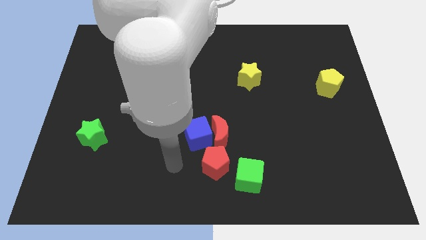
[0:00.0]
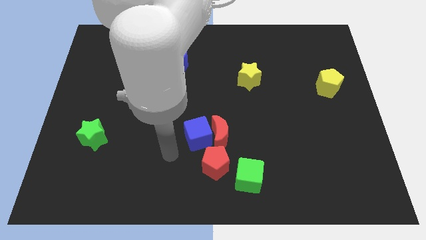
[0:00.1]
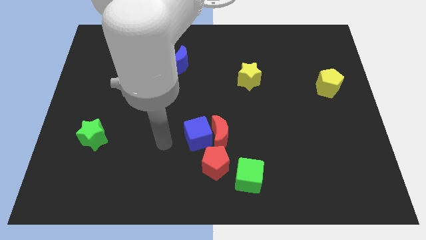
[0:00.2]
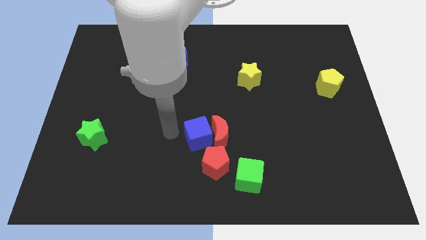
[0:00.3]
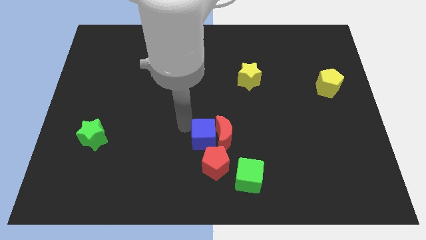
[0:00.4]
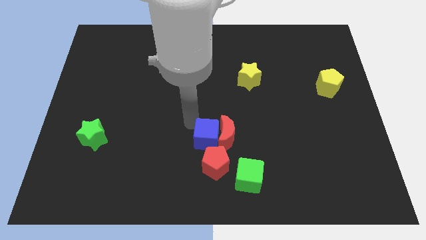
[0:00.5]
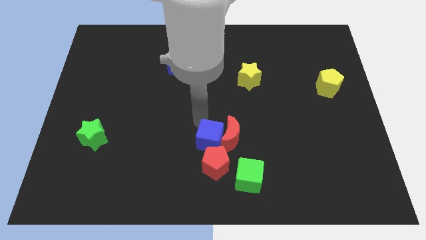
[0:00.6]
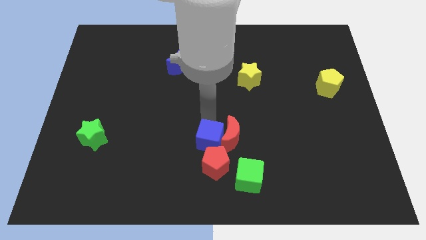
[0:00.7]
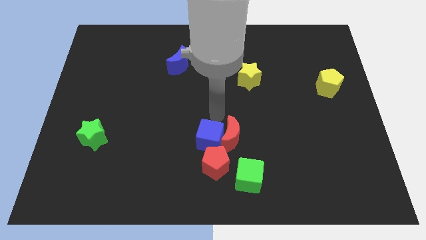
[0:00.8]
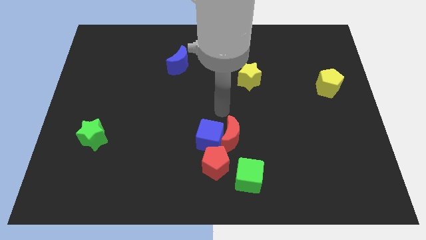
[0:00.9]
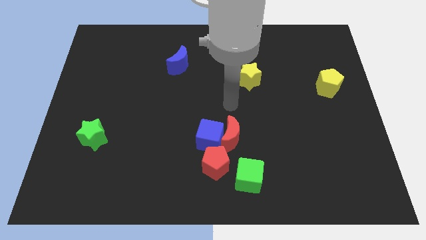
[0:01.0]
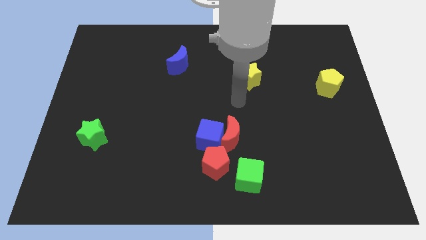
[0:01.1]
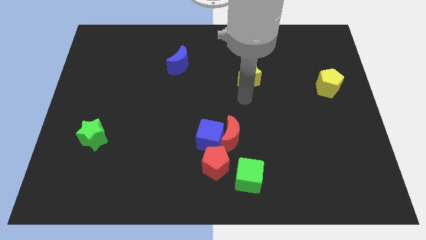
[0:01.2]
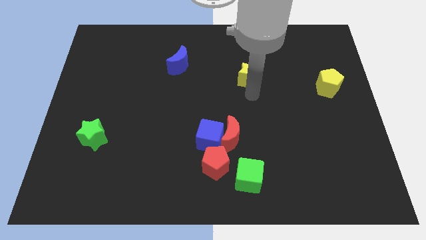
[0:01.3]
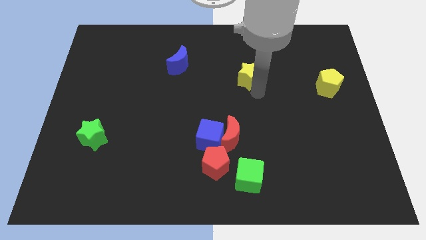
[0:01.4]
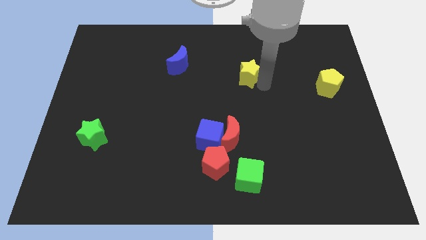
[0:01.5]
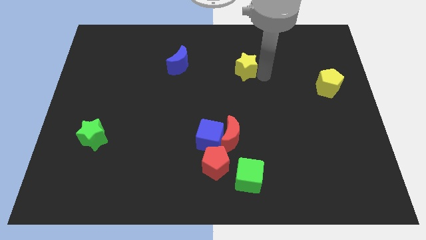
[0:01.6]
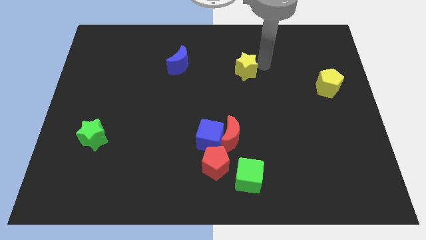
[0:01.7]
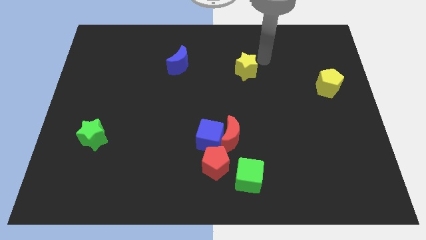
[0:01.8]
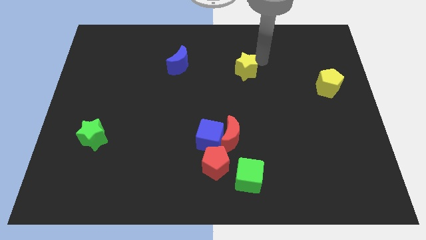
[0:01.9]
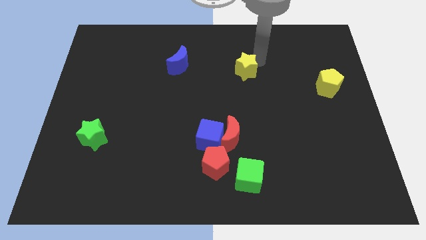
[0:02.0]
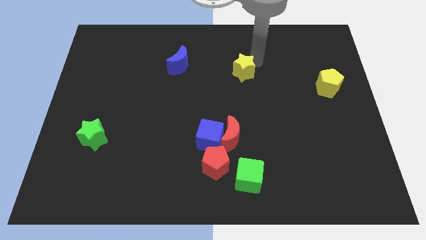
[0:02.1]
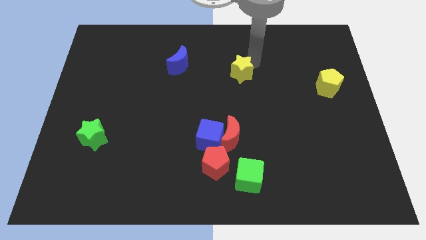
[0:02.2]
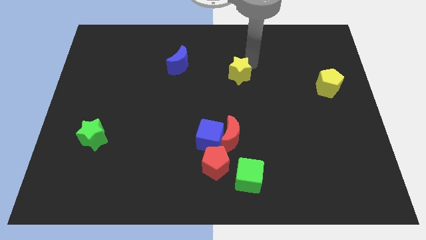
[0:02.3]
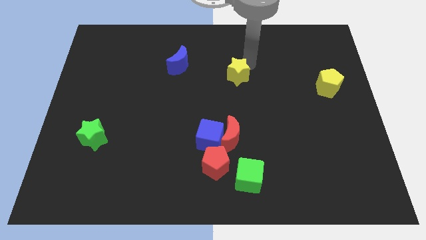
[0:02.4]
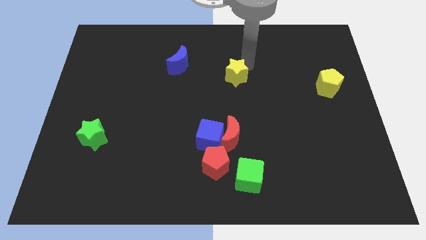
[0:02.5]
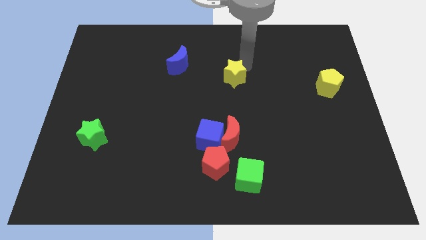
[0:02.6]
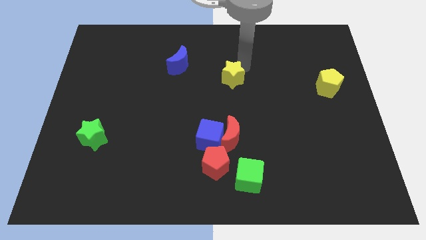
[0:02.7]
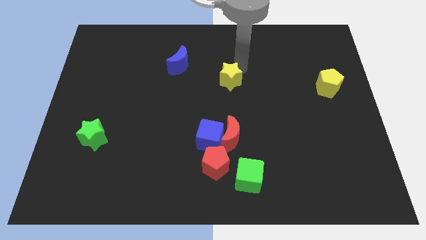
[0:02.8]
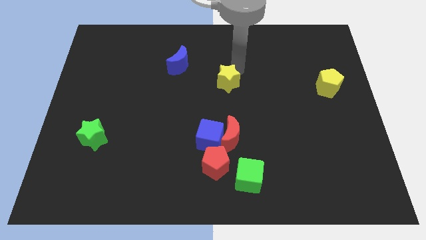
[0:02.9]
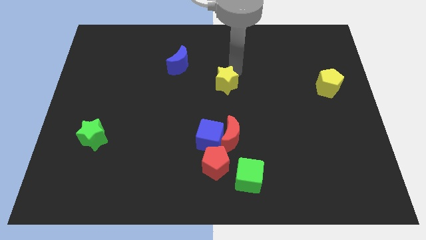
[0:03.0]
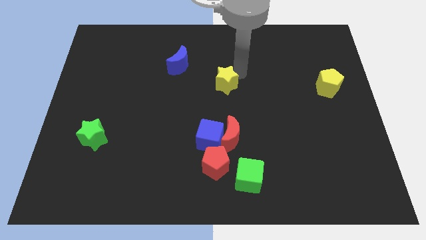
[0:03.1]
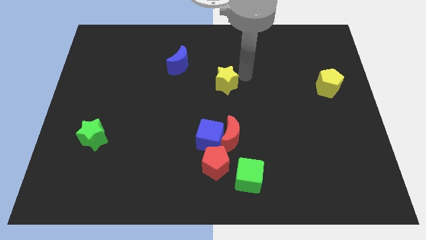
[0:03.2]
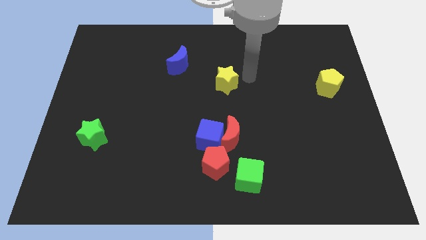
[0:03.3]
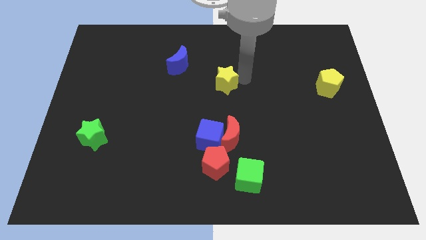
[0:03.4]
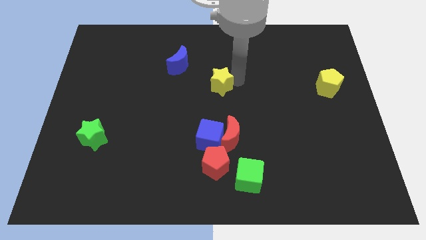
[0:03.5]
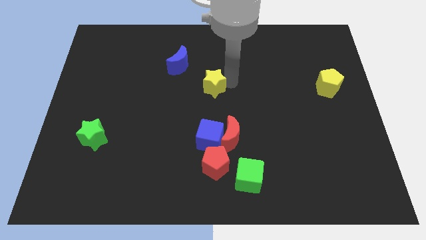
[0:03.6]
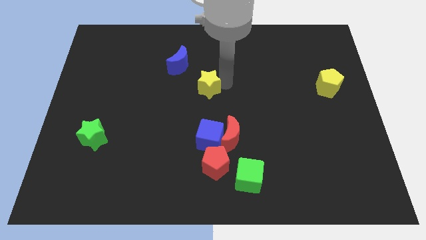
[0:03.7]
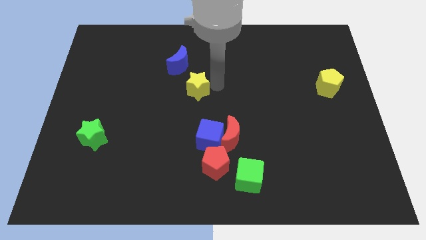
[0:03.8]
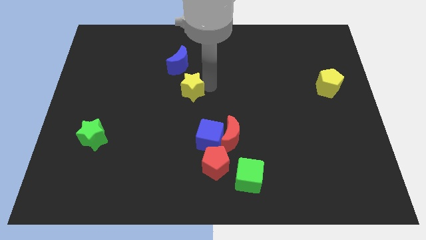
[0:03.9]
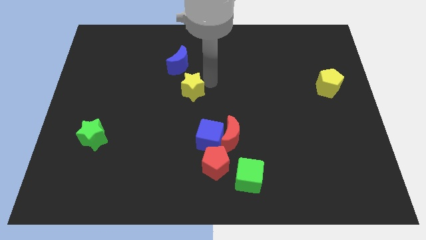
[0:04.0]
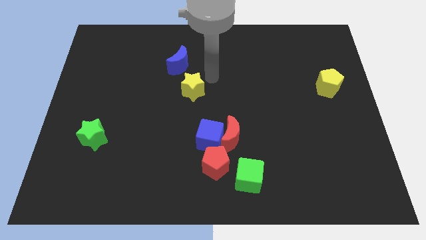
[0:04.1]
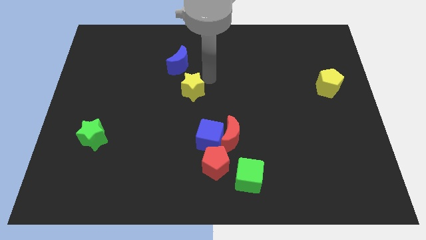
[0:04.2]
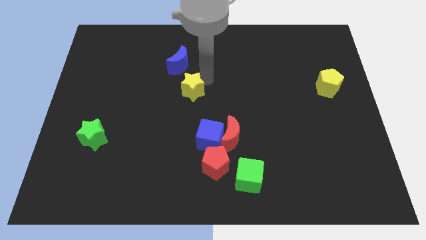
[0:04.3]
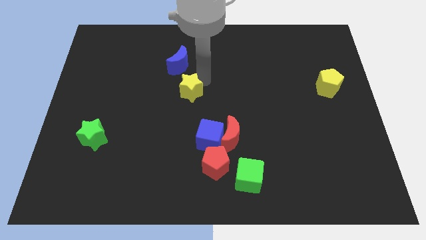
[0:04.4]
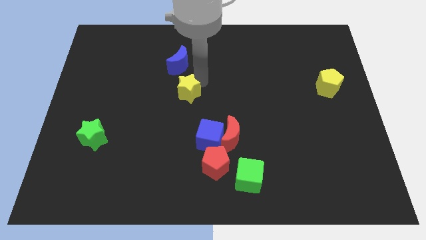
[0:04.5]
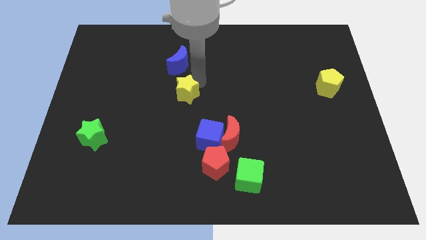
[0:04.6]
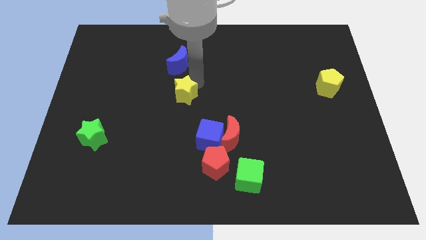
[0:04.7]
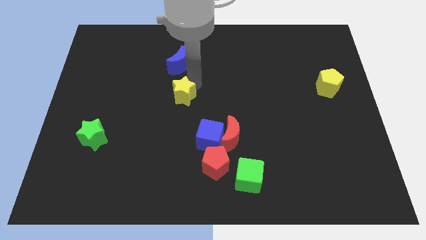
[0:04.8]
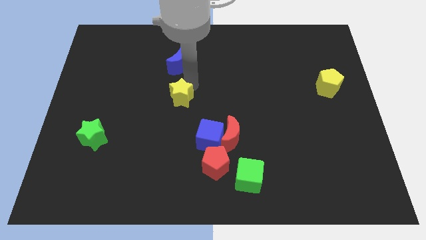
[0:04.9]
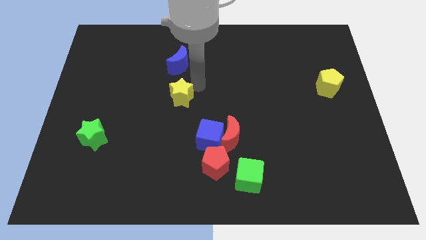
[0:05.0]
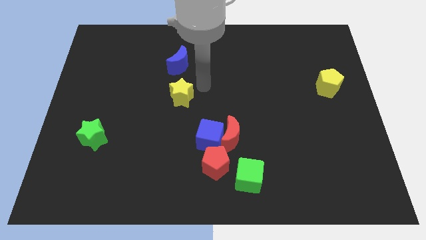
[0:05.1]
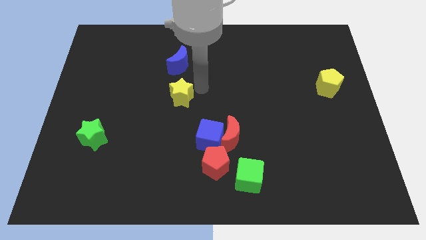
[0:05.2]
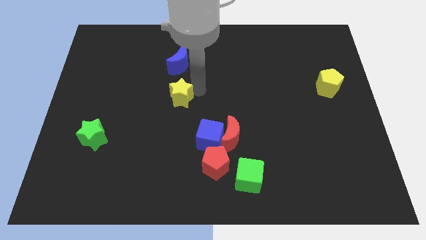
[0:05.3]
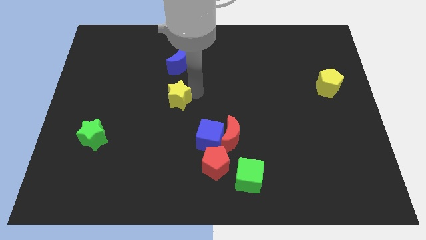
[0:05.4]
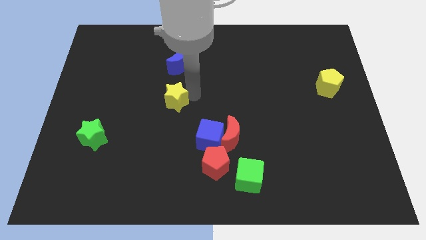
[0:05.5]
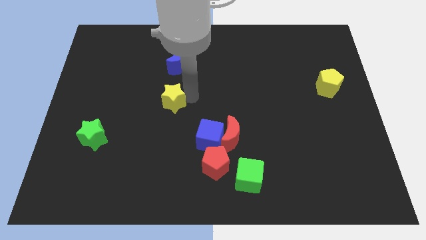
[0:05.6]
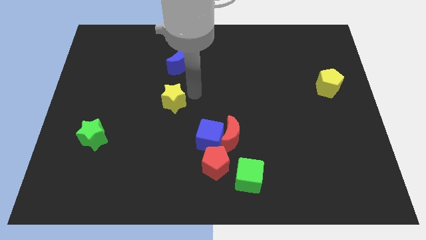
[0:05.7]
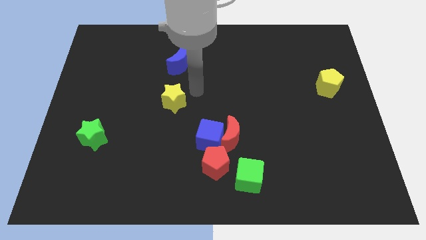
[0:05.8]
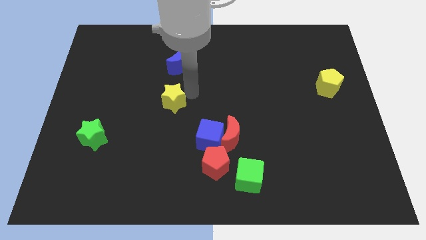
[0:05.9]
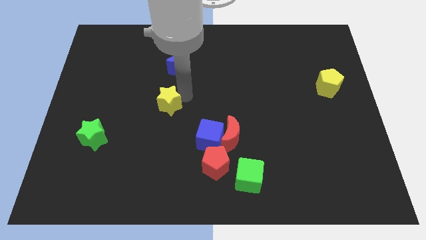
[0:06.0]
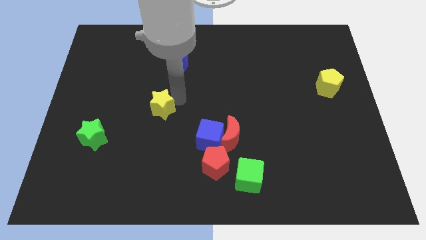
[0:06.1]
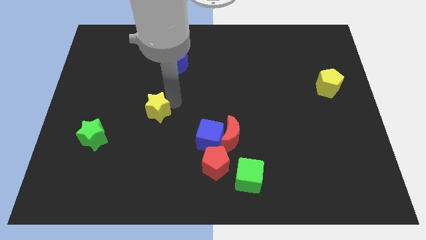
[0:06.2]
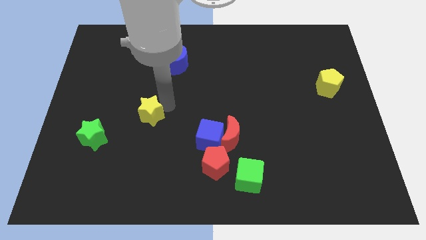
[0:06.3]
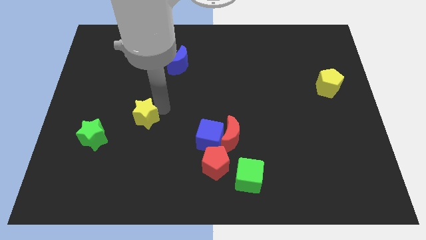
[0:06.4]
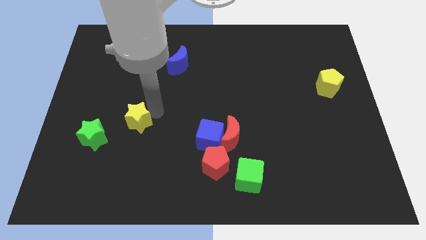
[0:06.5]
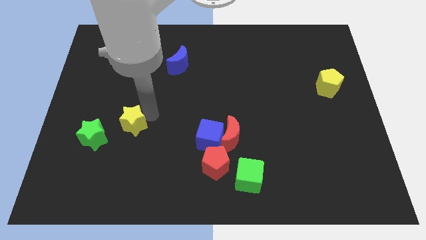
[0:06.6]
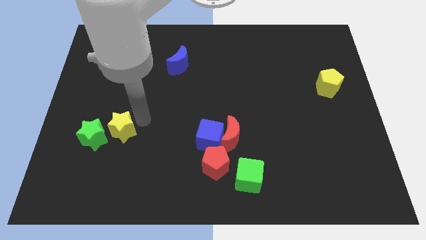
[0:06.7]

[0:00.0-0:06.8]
move the yellow star next to the green star

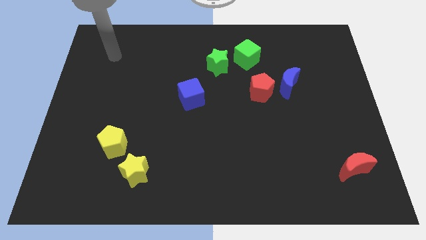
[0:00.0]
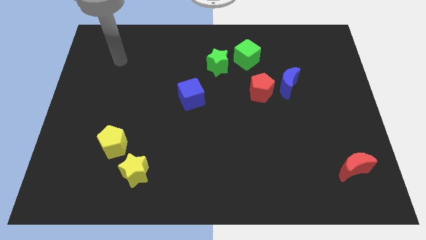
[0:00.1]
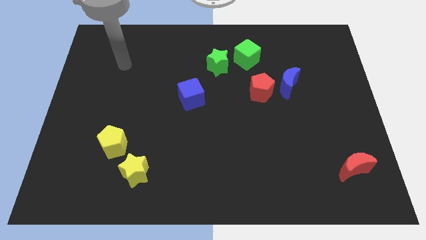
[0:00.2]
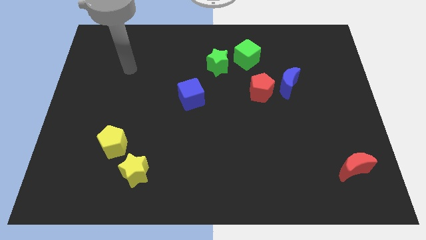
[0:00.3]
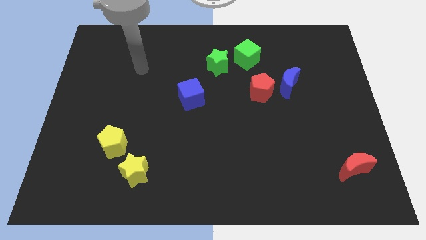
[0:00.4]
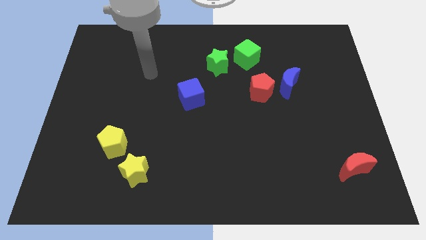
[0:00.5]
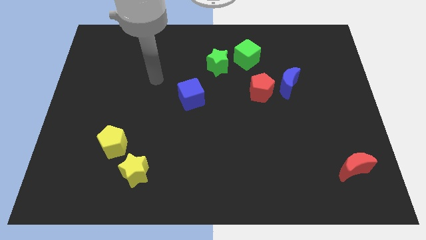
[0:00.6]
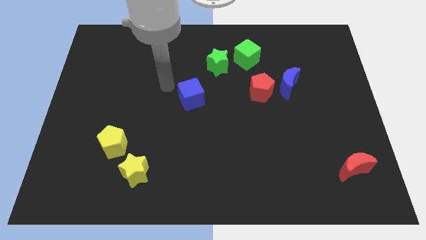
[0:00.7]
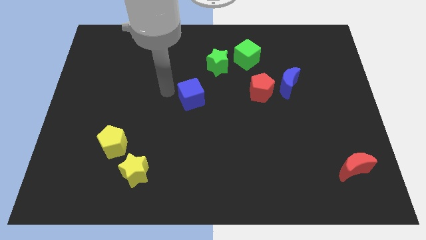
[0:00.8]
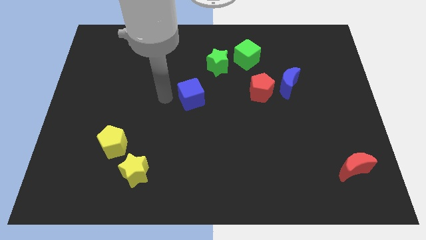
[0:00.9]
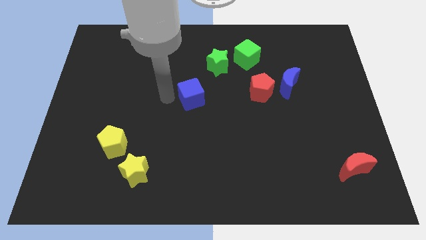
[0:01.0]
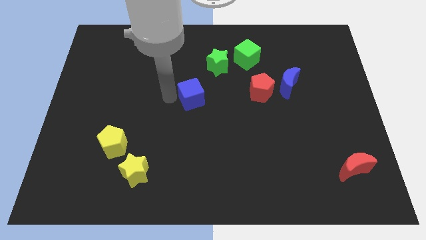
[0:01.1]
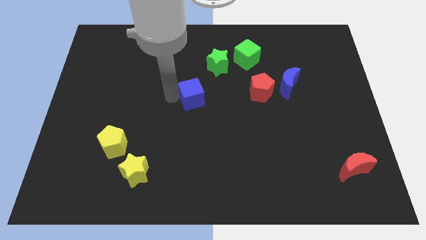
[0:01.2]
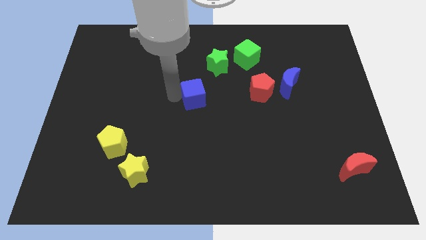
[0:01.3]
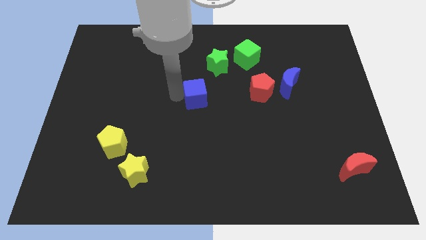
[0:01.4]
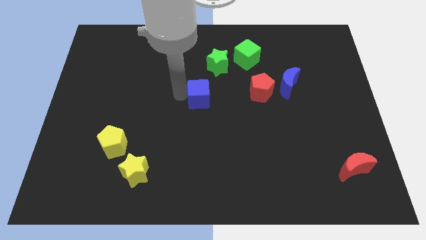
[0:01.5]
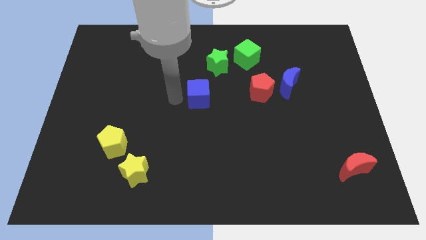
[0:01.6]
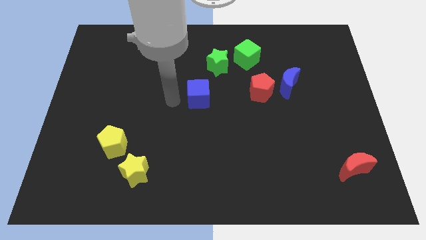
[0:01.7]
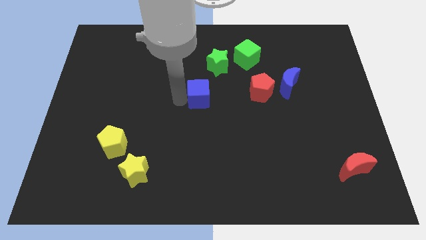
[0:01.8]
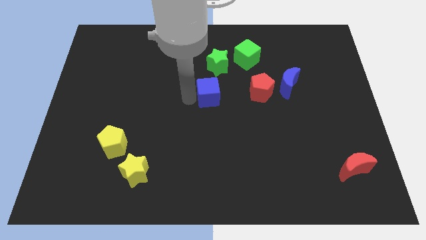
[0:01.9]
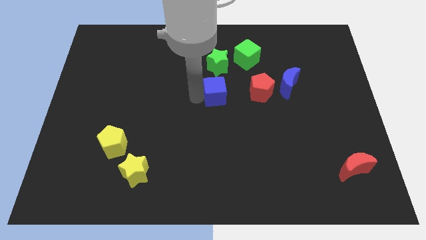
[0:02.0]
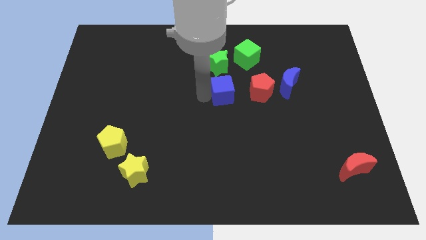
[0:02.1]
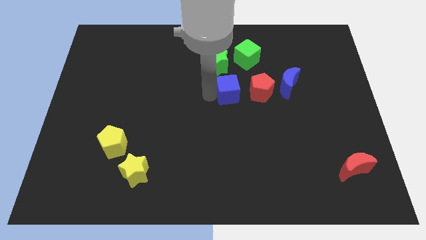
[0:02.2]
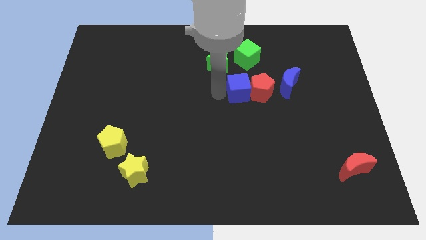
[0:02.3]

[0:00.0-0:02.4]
put the blue cube towards the red pentagon
